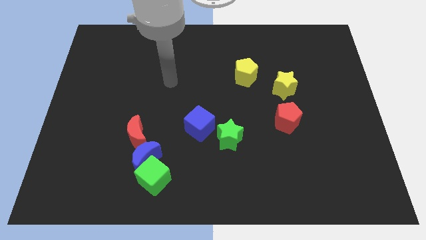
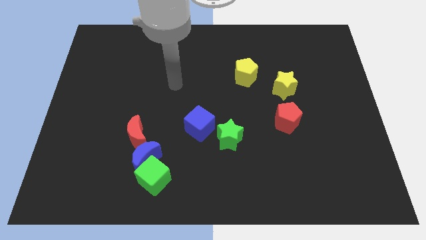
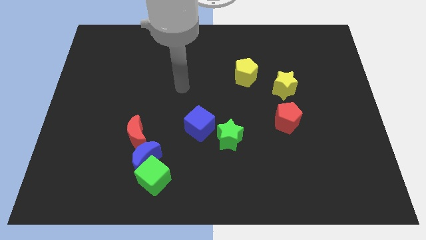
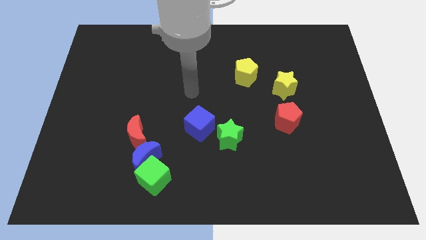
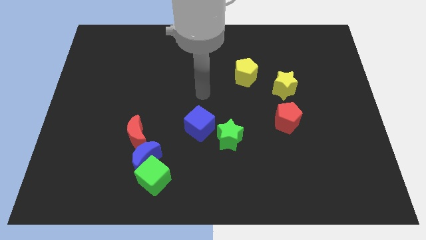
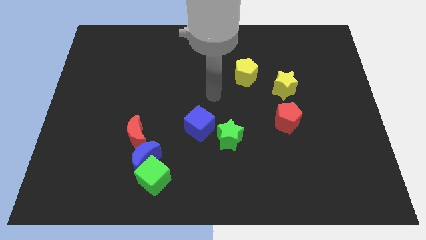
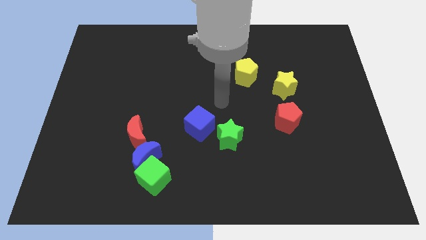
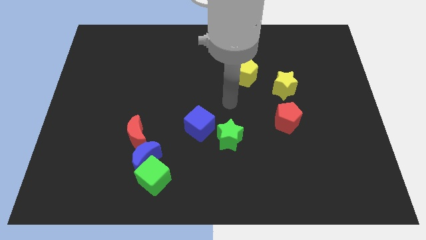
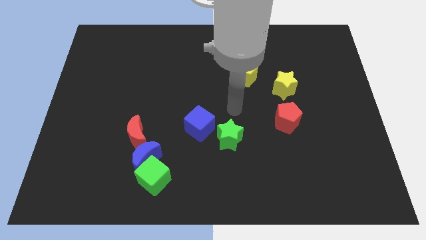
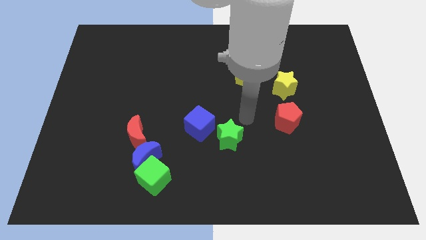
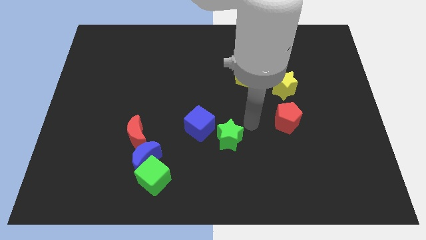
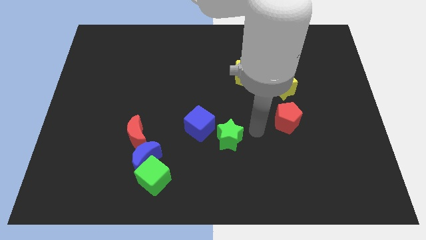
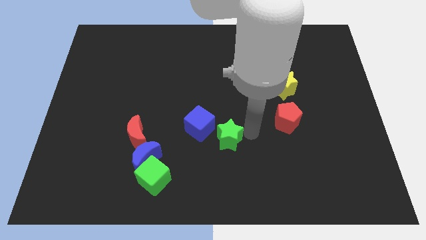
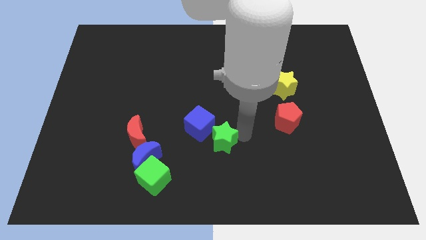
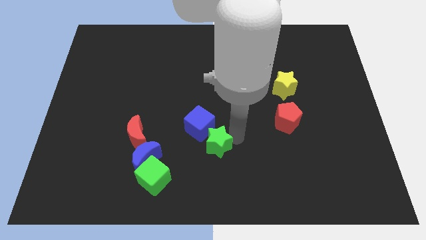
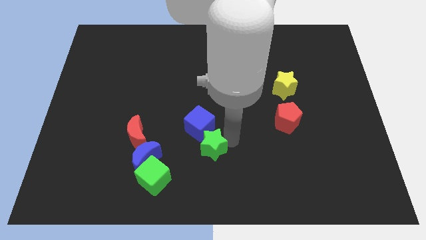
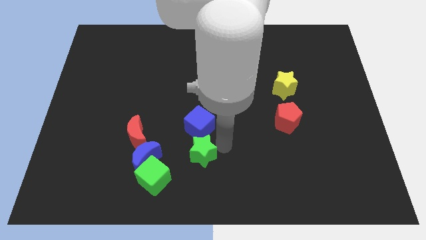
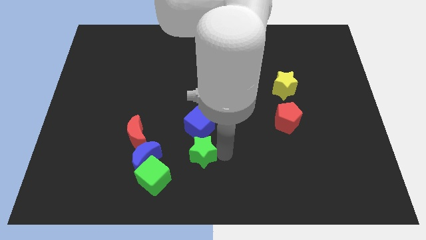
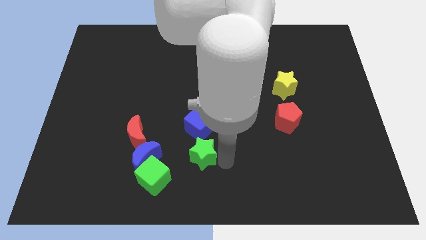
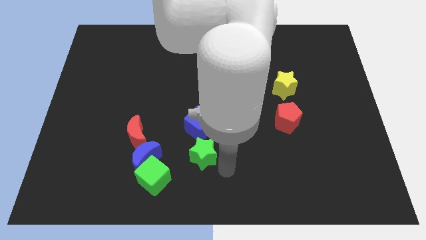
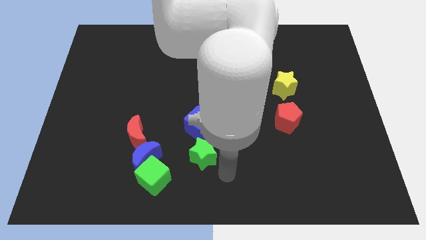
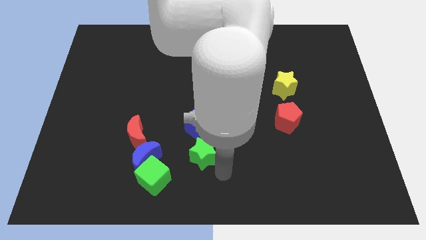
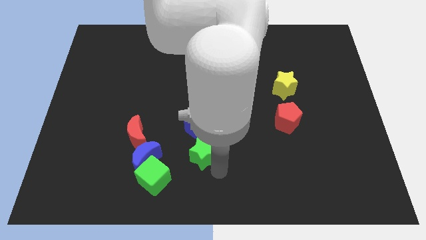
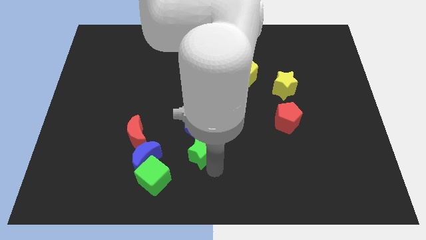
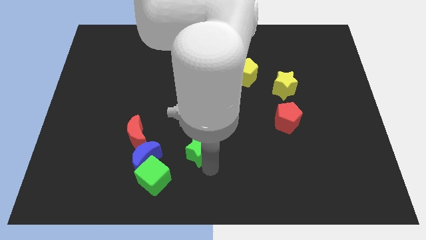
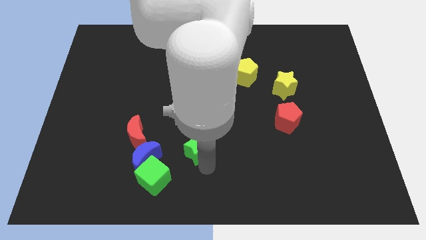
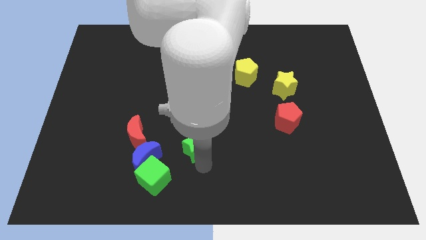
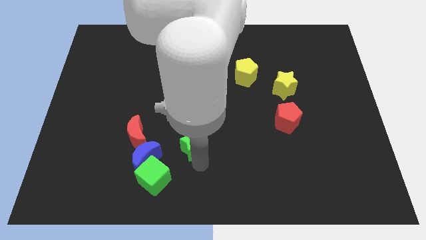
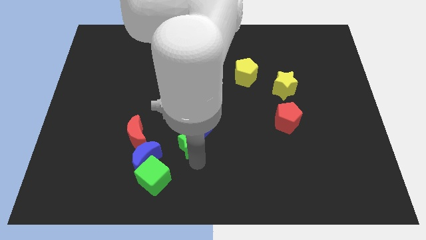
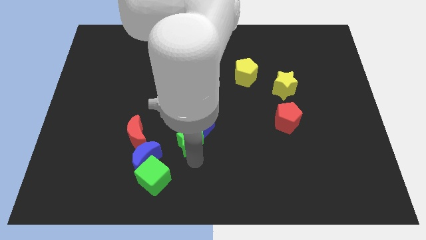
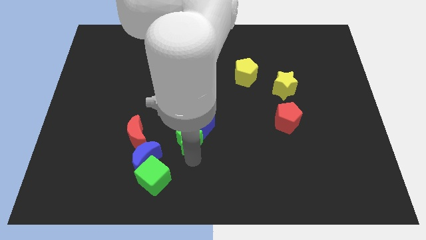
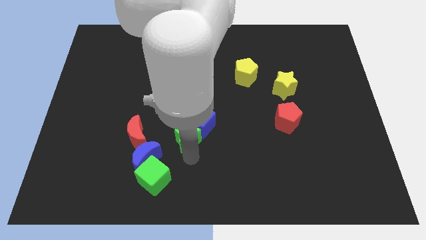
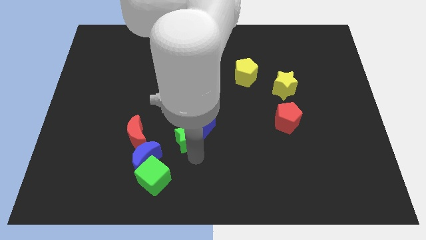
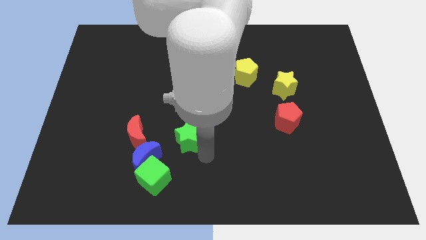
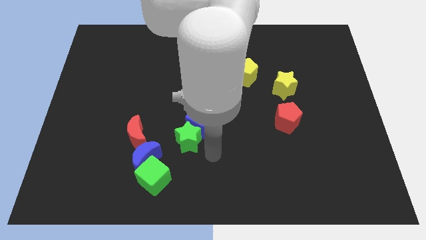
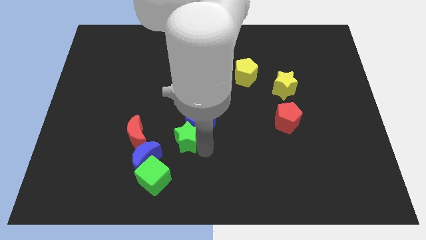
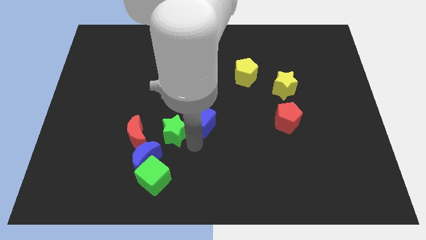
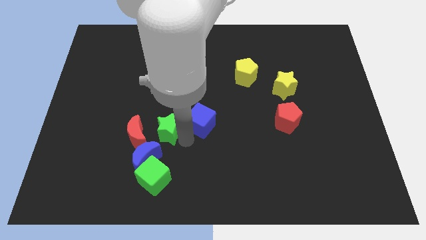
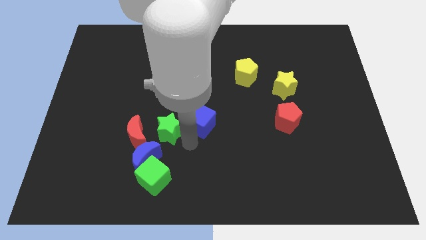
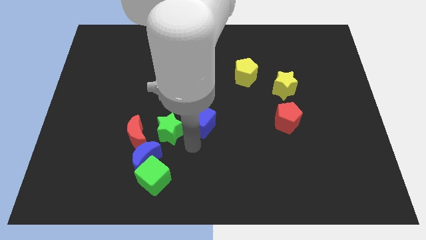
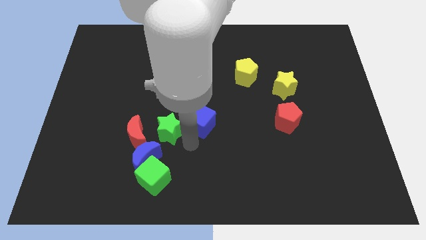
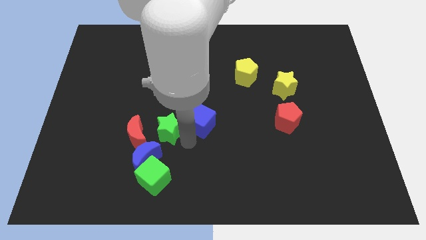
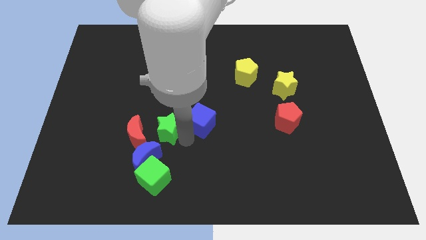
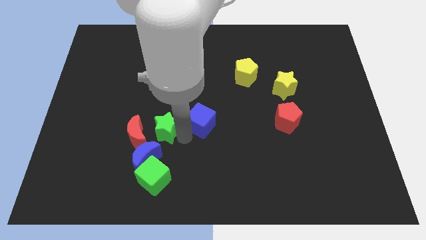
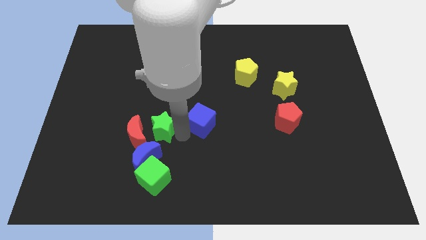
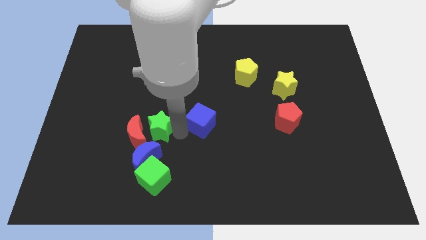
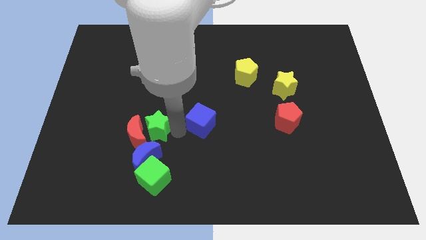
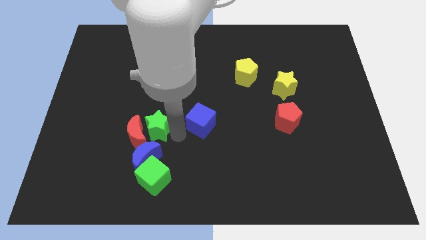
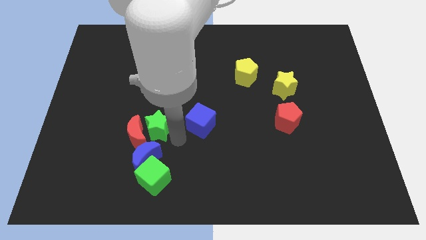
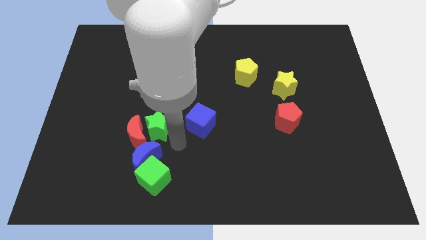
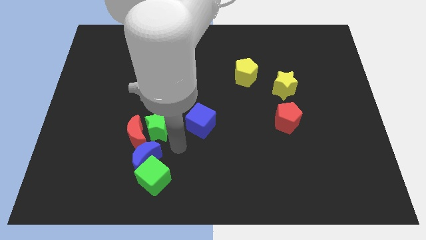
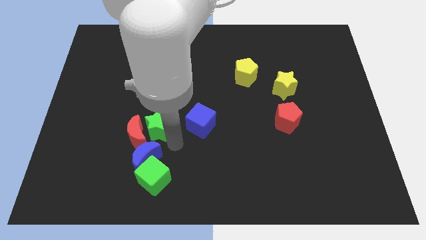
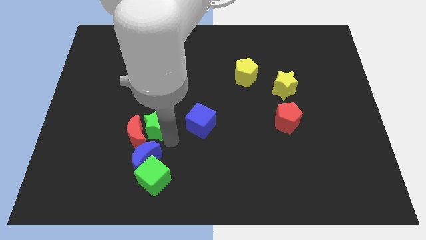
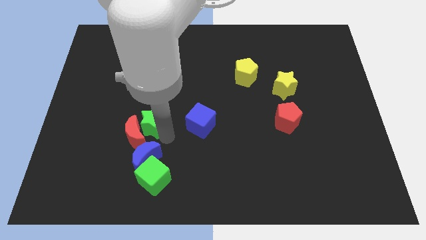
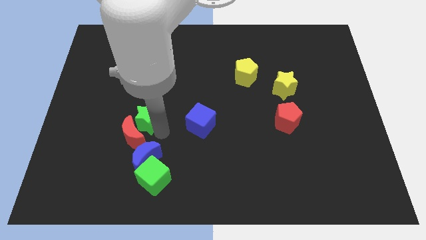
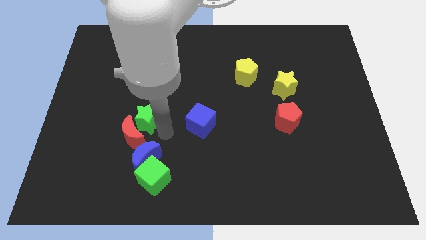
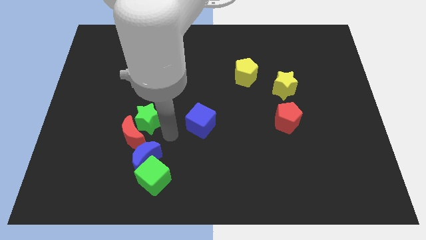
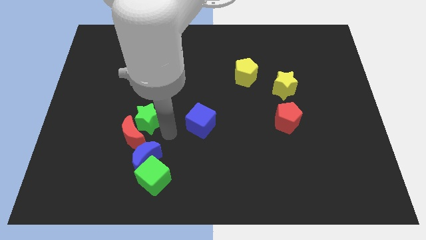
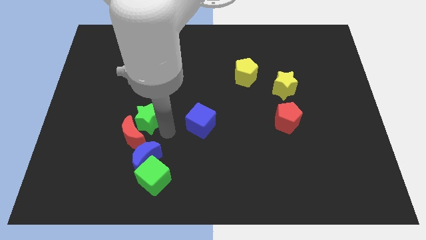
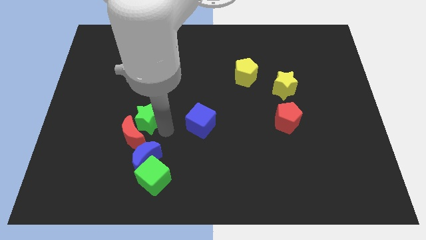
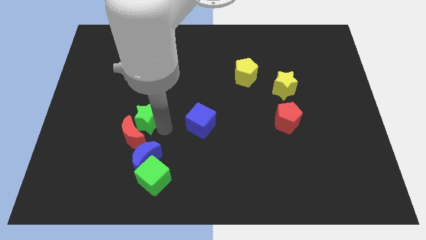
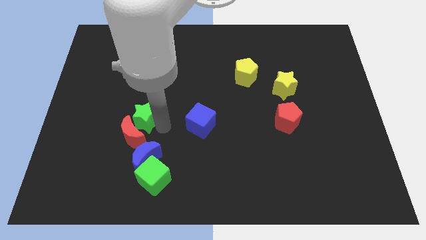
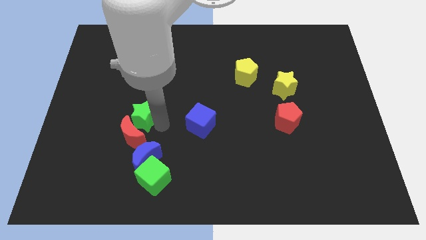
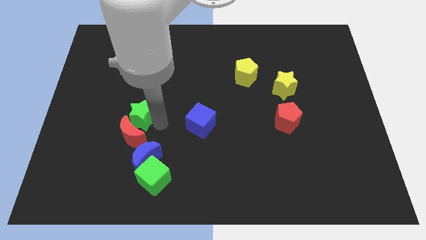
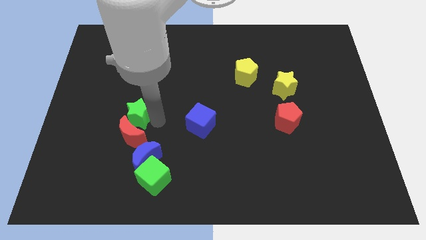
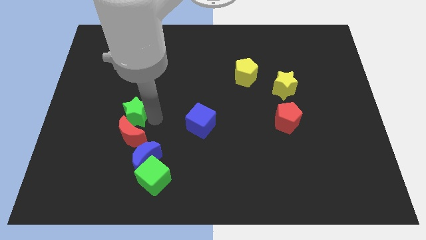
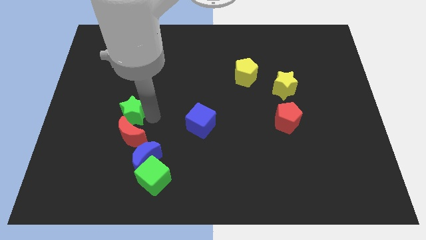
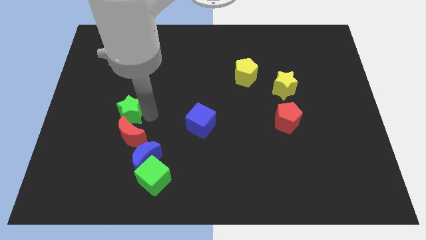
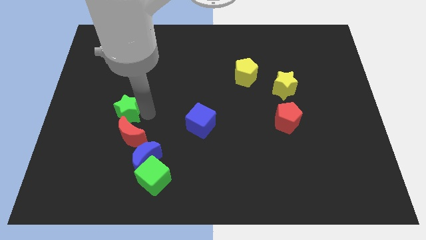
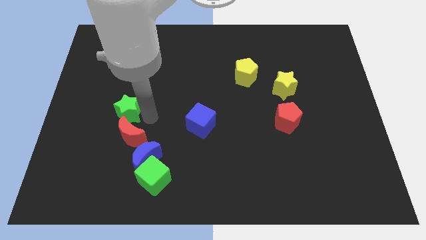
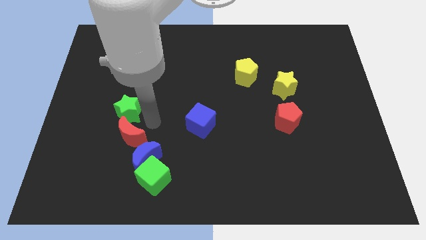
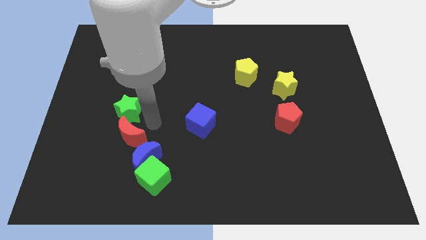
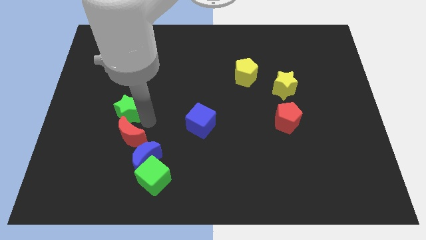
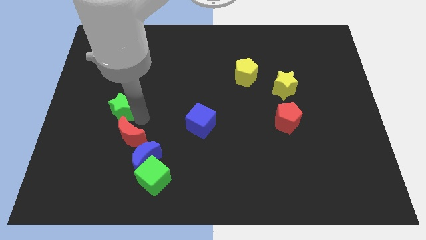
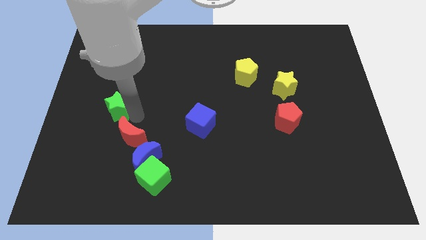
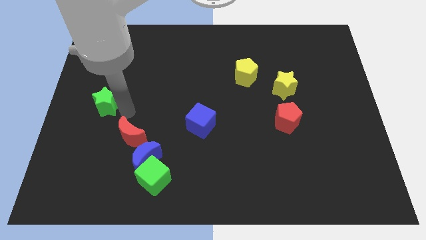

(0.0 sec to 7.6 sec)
slide the green star to the left side

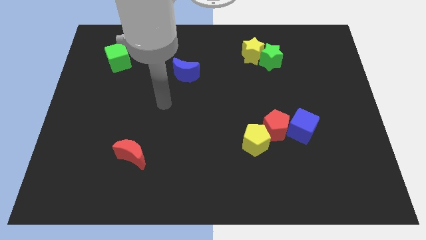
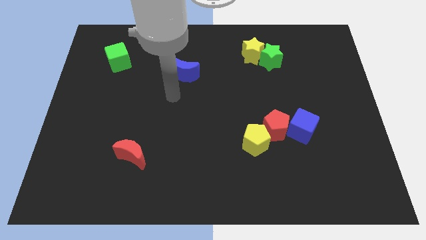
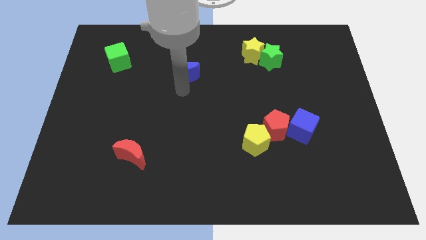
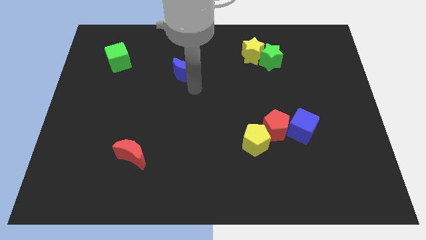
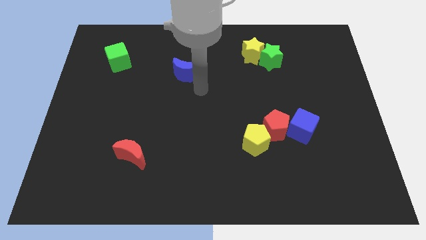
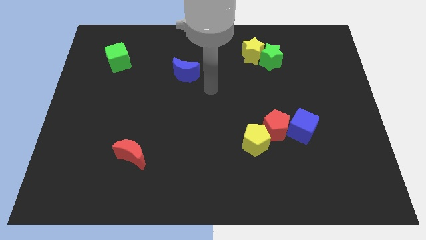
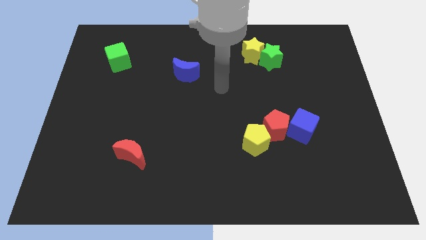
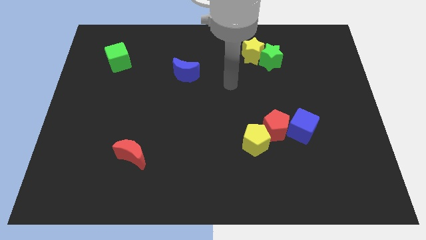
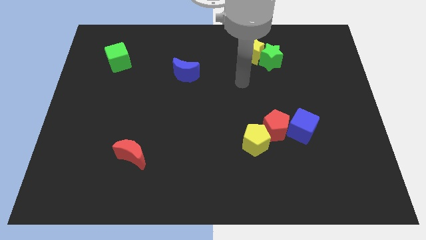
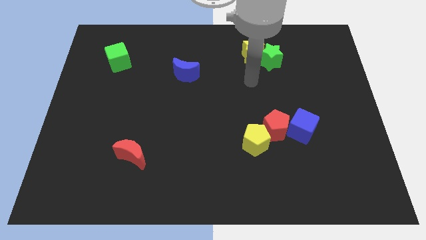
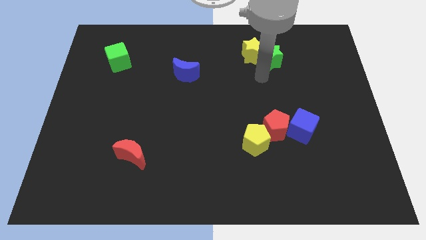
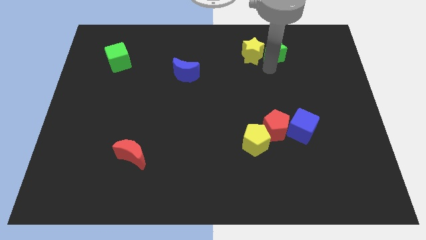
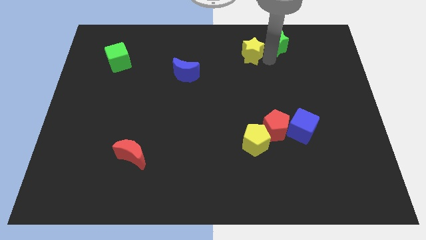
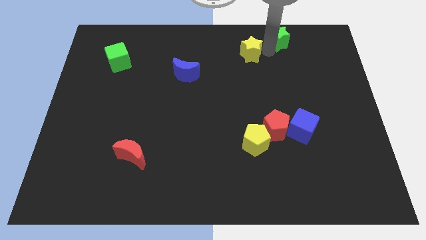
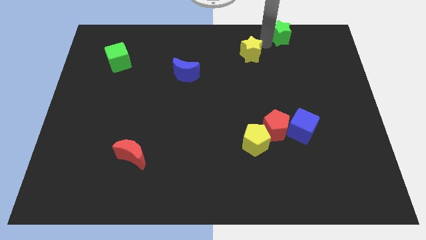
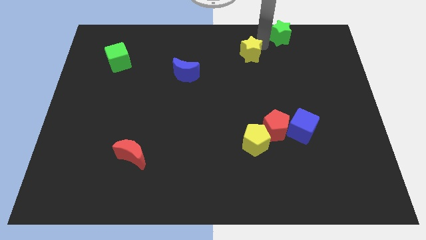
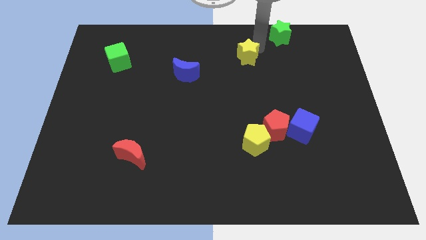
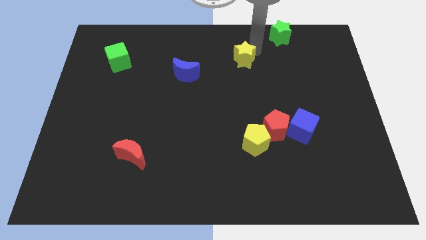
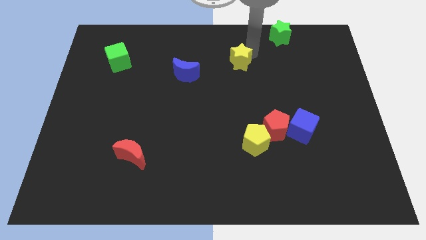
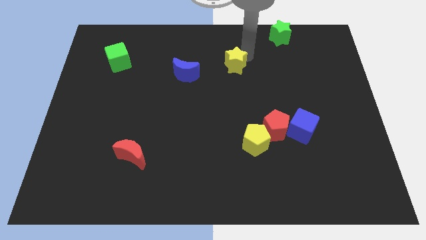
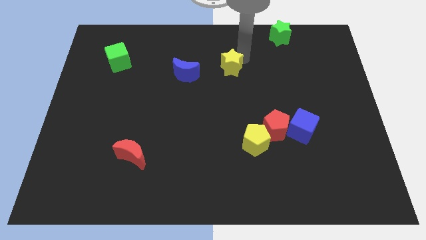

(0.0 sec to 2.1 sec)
push the yellow star to the center of the board
